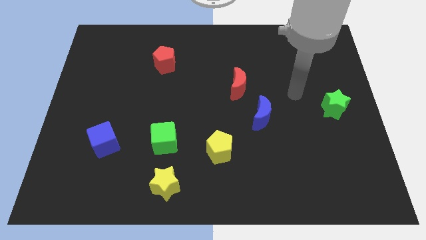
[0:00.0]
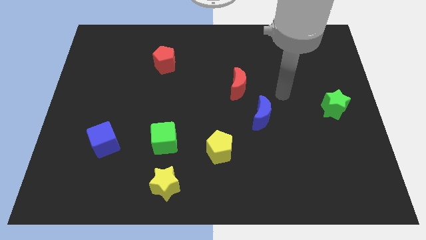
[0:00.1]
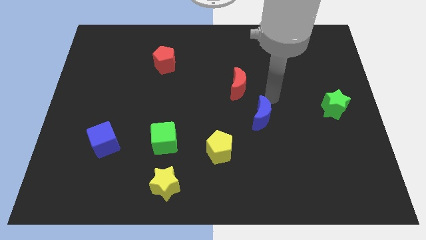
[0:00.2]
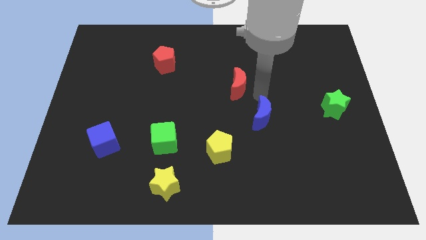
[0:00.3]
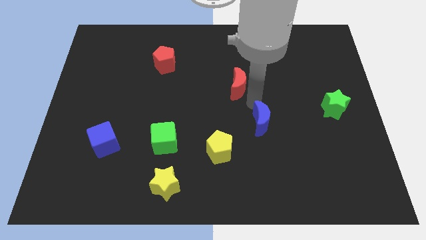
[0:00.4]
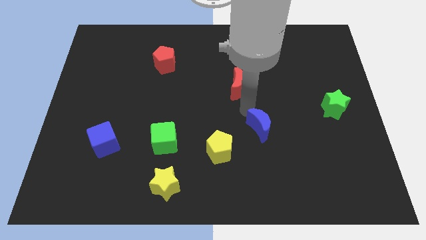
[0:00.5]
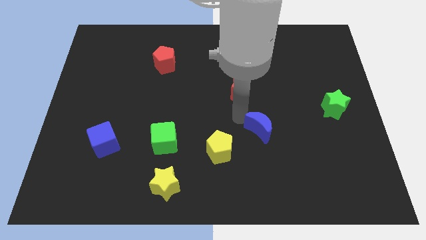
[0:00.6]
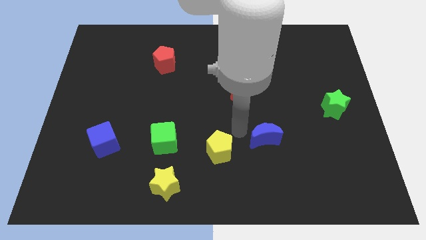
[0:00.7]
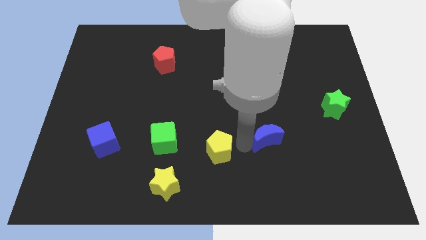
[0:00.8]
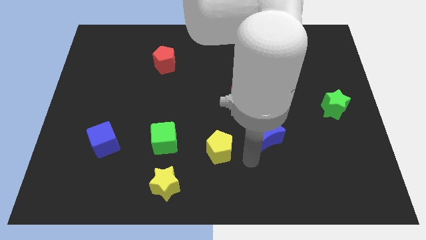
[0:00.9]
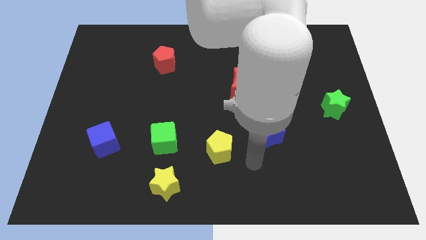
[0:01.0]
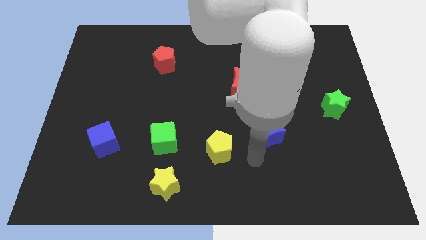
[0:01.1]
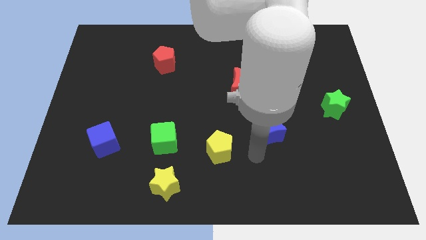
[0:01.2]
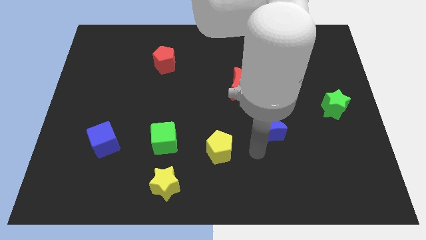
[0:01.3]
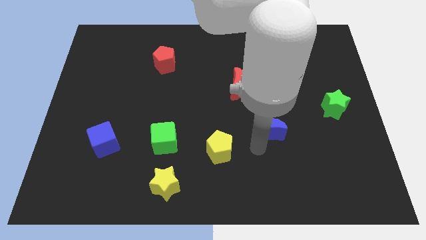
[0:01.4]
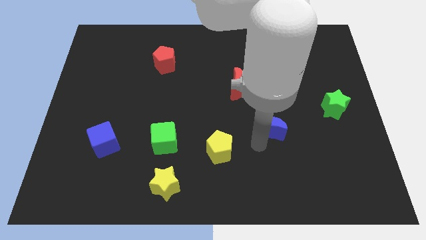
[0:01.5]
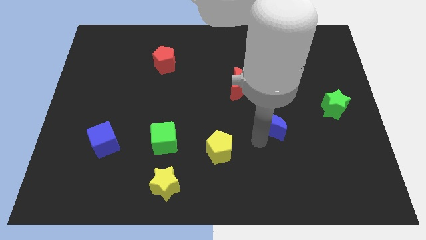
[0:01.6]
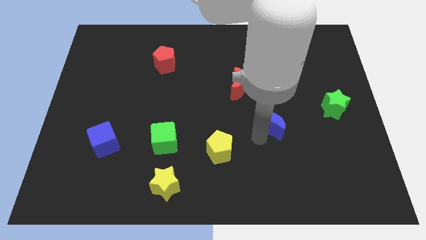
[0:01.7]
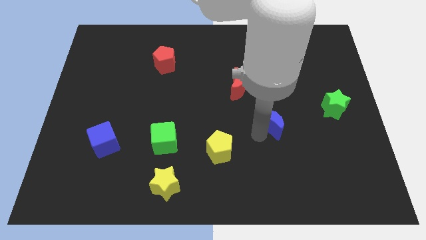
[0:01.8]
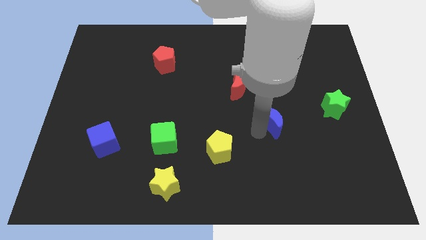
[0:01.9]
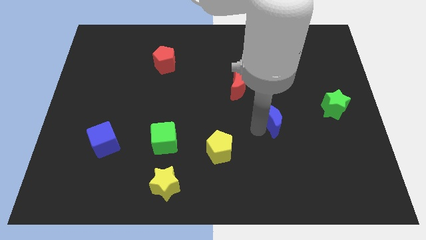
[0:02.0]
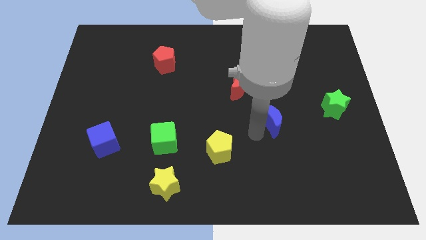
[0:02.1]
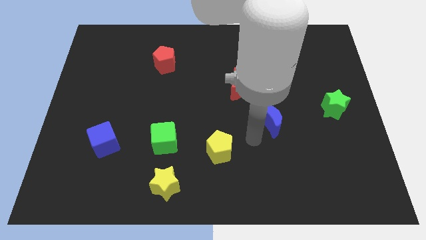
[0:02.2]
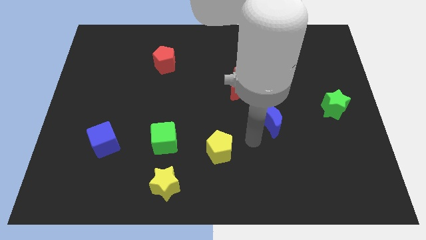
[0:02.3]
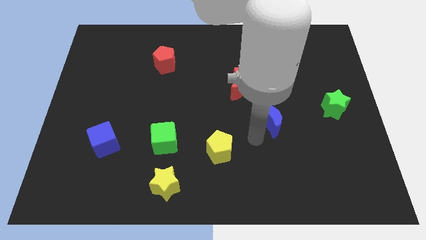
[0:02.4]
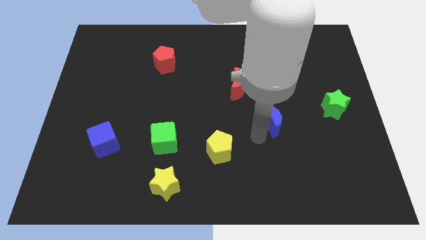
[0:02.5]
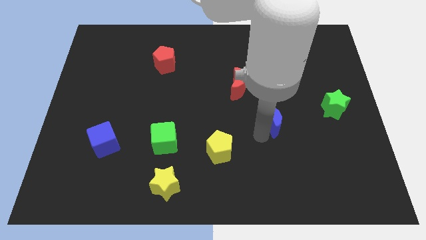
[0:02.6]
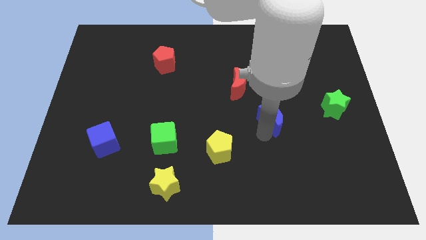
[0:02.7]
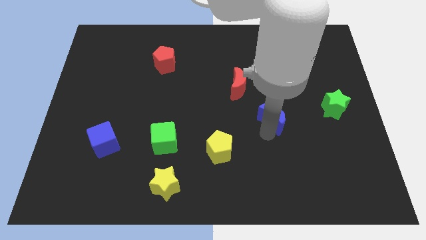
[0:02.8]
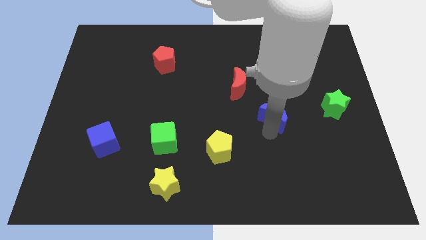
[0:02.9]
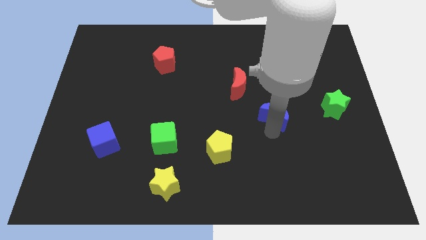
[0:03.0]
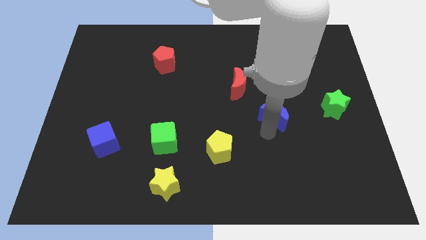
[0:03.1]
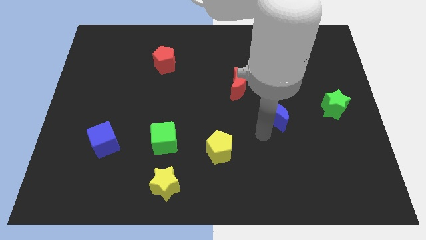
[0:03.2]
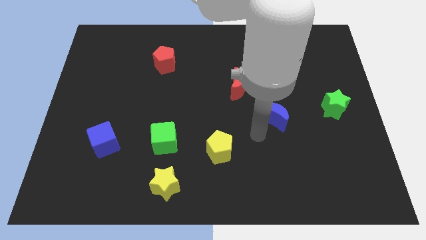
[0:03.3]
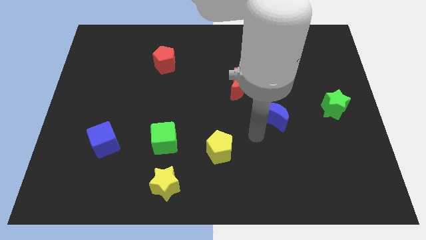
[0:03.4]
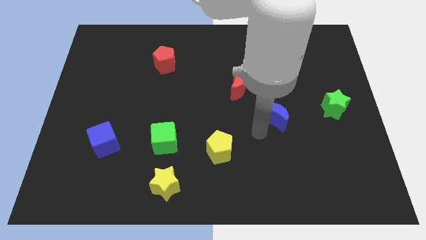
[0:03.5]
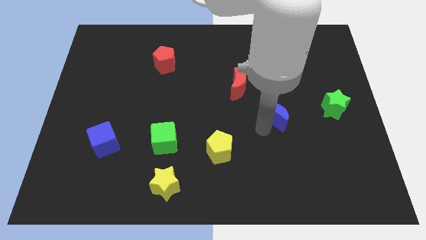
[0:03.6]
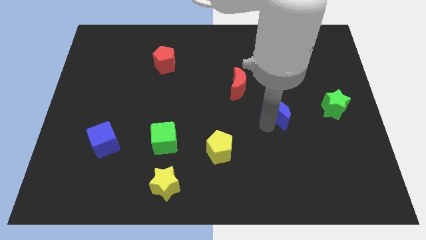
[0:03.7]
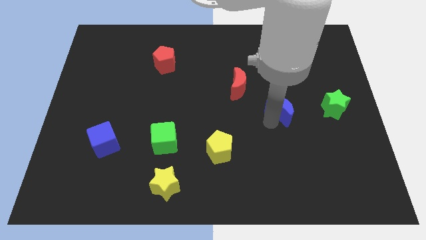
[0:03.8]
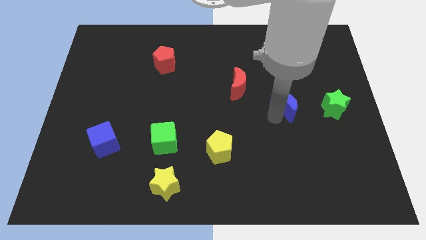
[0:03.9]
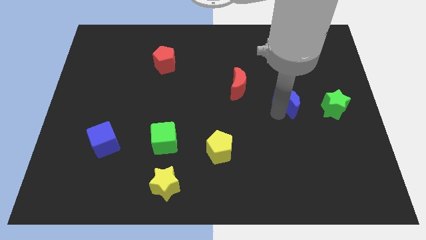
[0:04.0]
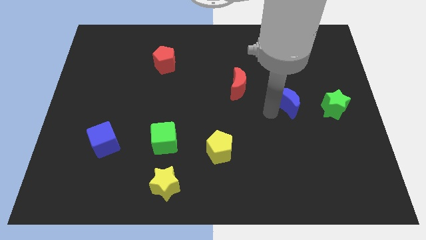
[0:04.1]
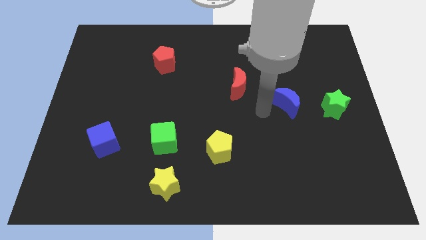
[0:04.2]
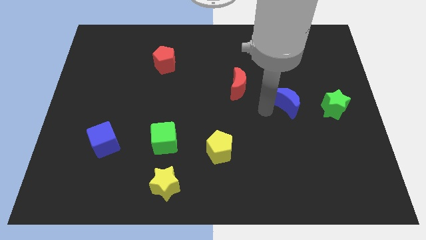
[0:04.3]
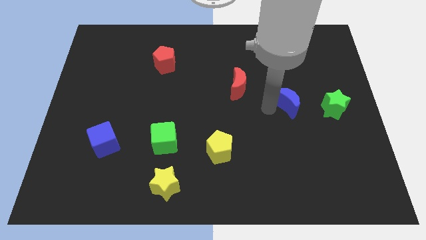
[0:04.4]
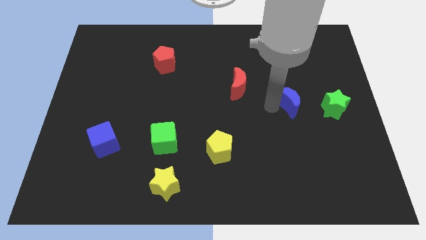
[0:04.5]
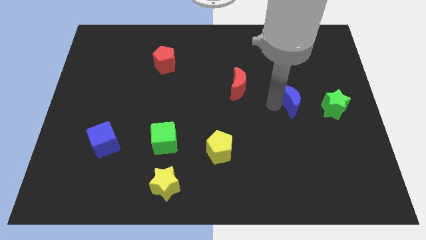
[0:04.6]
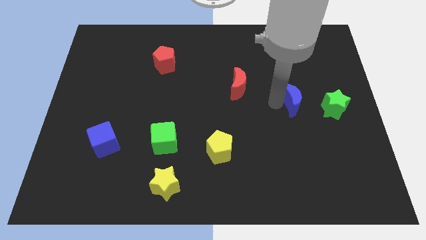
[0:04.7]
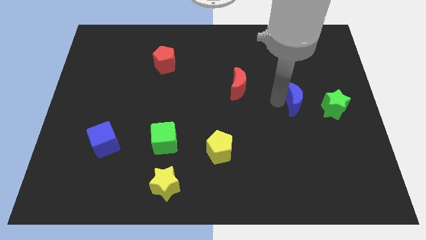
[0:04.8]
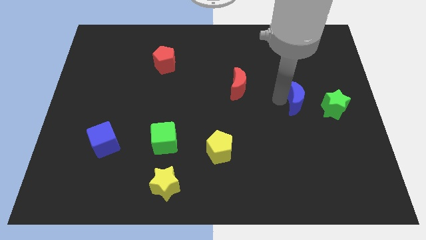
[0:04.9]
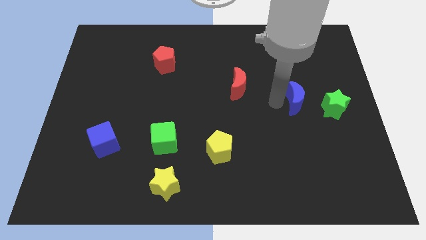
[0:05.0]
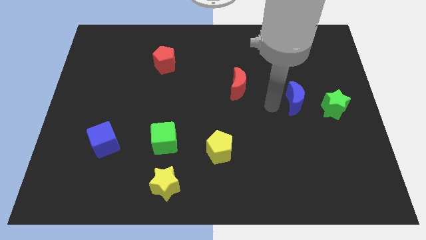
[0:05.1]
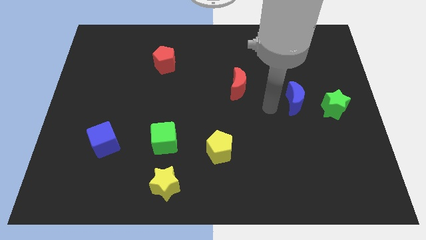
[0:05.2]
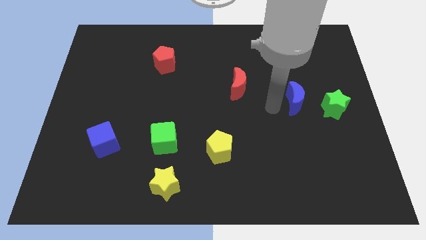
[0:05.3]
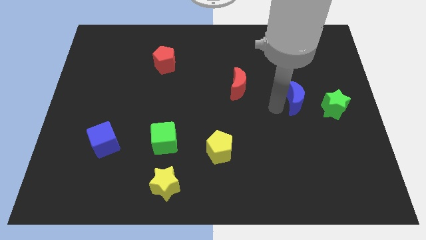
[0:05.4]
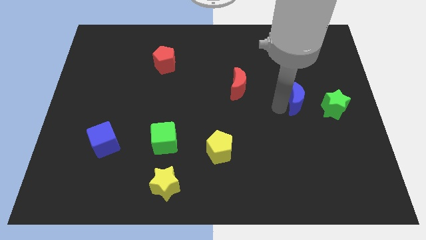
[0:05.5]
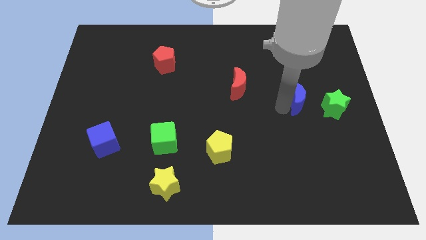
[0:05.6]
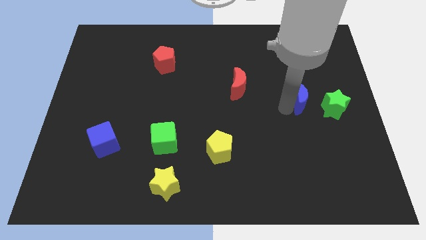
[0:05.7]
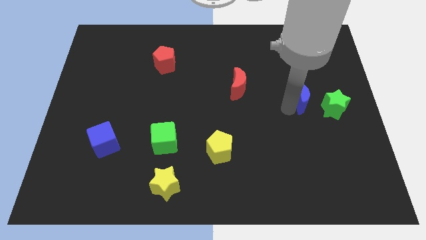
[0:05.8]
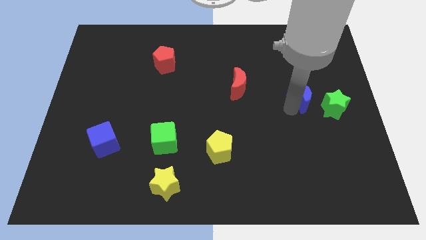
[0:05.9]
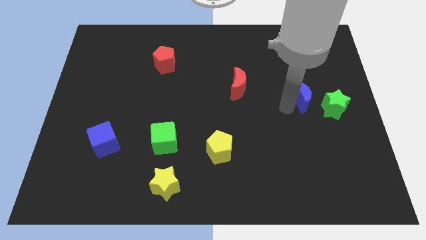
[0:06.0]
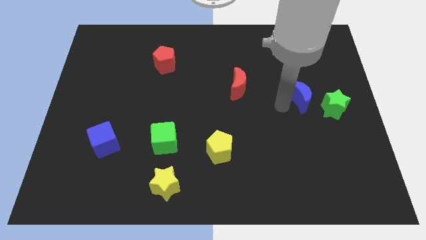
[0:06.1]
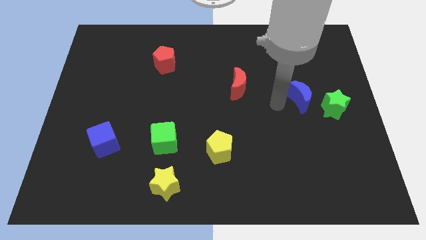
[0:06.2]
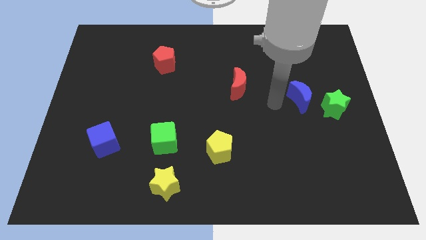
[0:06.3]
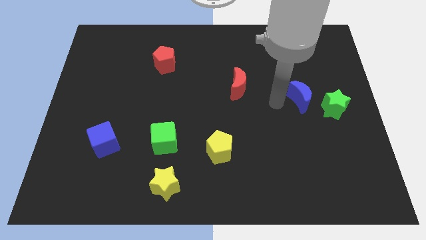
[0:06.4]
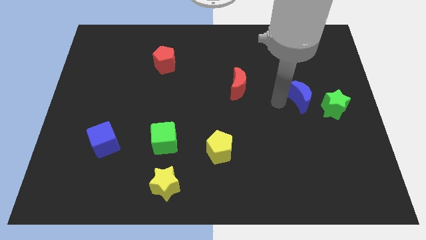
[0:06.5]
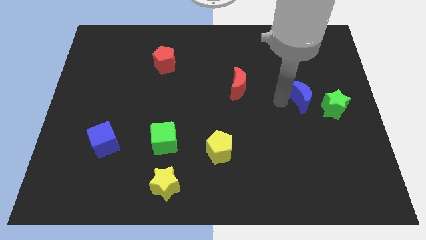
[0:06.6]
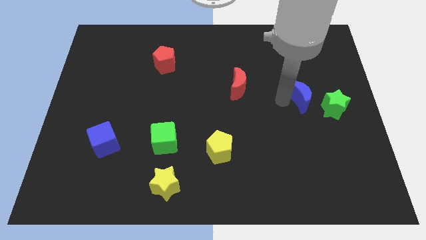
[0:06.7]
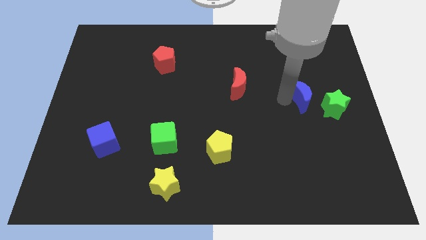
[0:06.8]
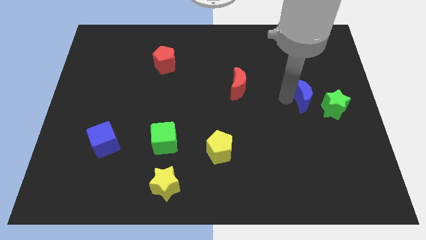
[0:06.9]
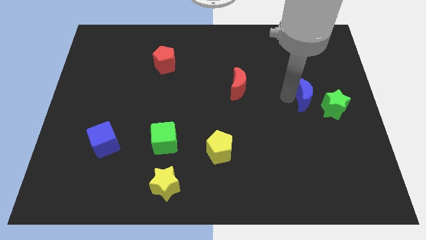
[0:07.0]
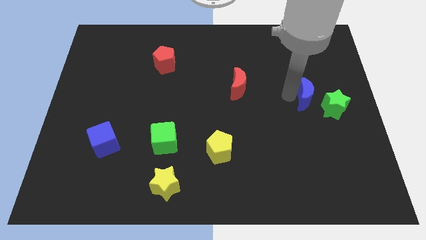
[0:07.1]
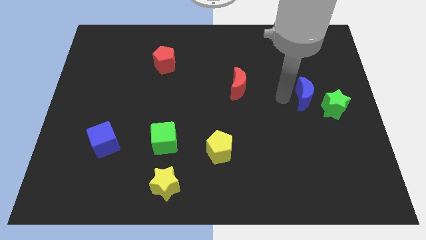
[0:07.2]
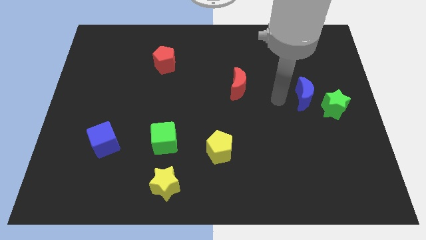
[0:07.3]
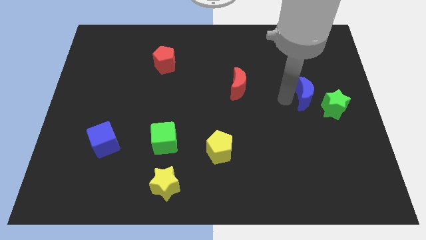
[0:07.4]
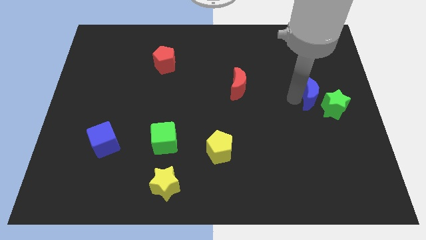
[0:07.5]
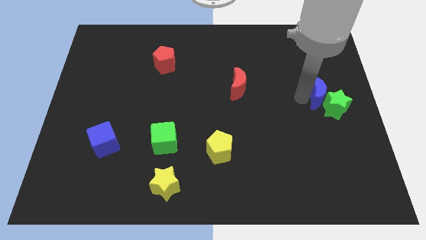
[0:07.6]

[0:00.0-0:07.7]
move the blue moon to the right side of the board
